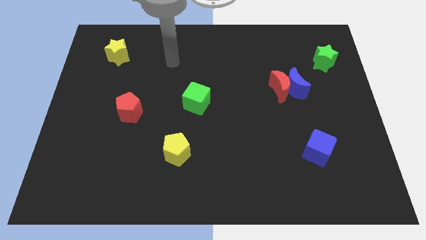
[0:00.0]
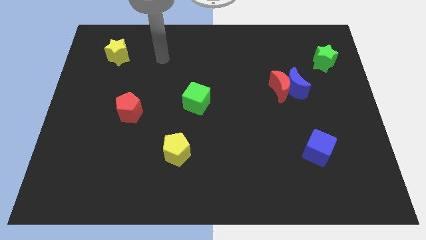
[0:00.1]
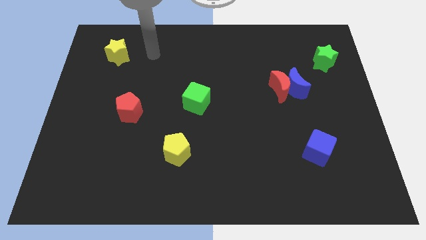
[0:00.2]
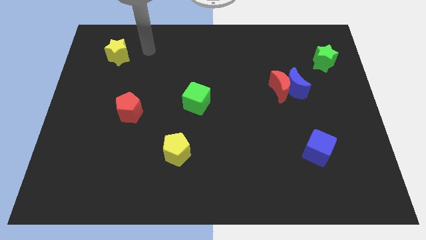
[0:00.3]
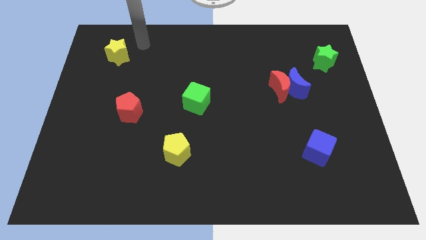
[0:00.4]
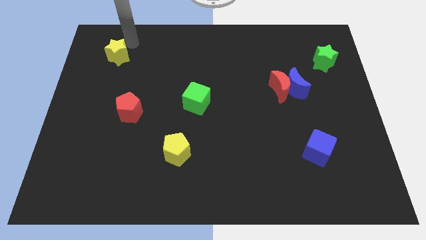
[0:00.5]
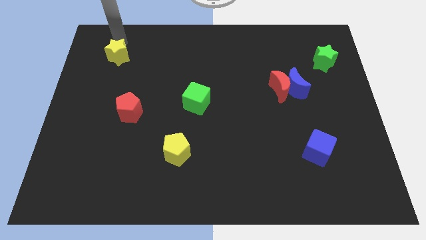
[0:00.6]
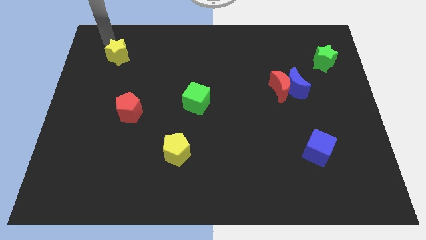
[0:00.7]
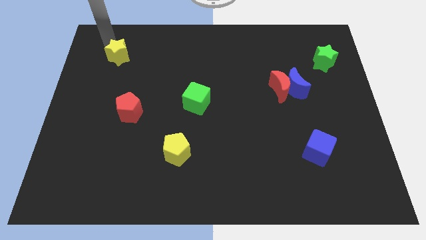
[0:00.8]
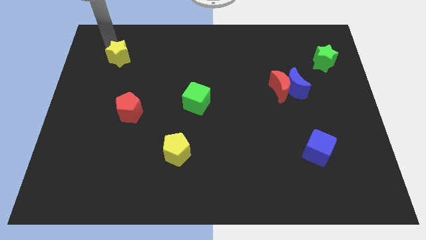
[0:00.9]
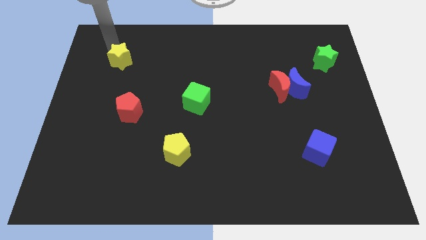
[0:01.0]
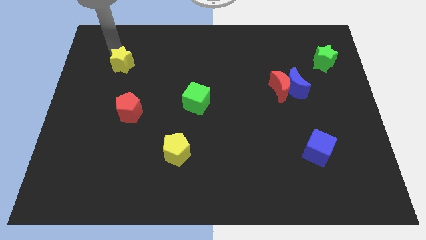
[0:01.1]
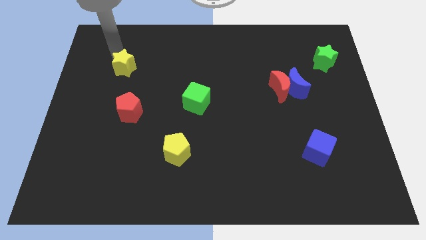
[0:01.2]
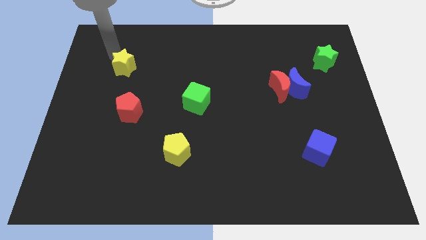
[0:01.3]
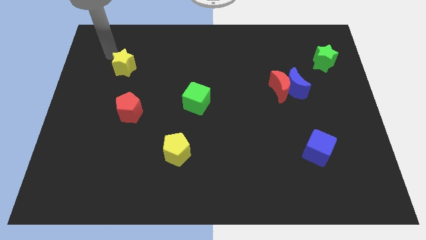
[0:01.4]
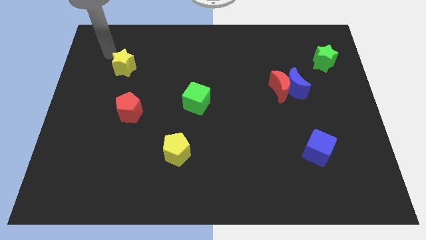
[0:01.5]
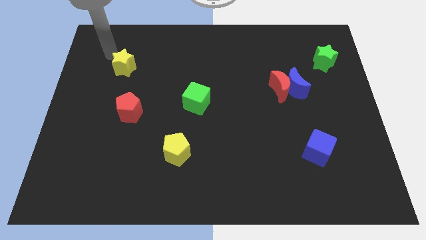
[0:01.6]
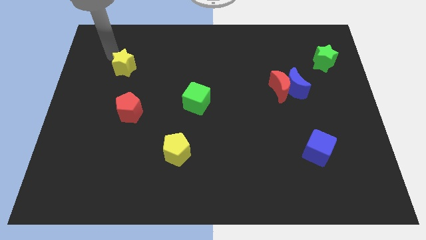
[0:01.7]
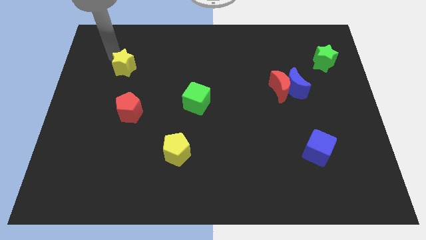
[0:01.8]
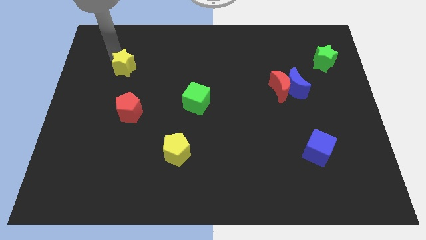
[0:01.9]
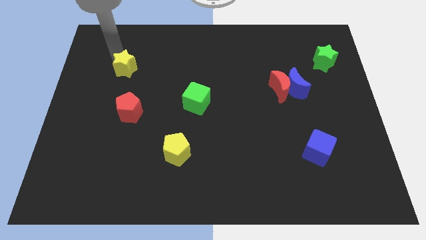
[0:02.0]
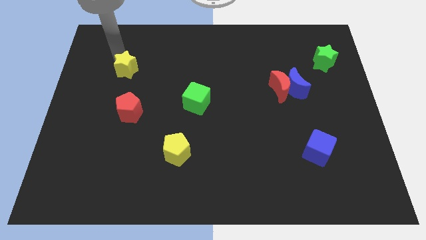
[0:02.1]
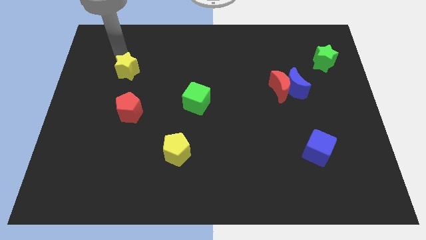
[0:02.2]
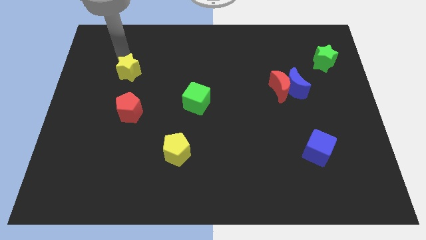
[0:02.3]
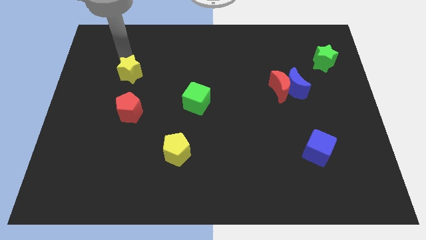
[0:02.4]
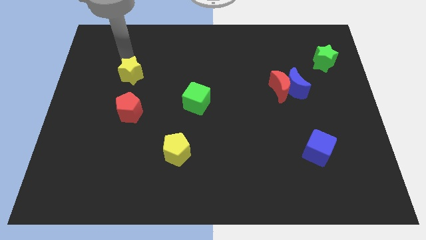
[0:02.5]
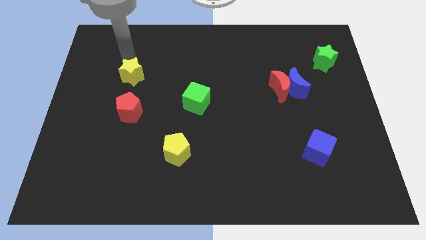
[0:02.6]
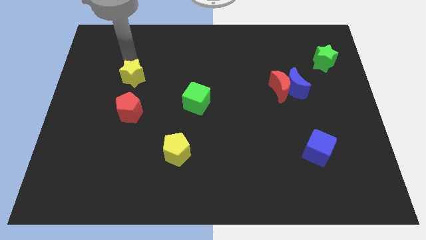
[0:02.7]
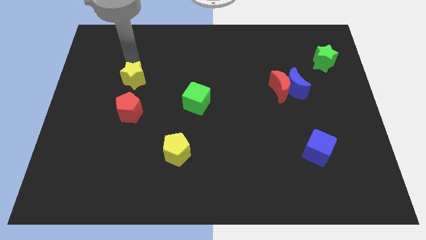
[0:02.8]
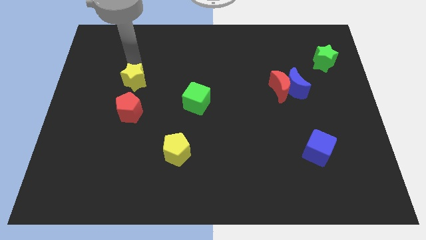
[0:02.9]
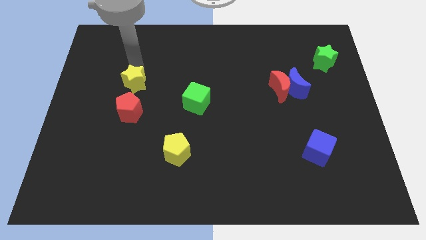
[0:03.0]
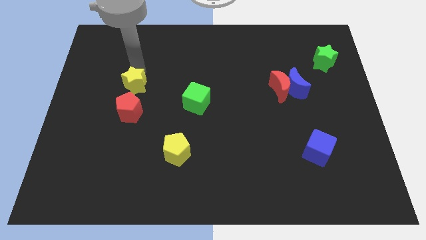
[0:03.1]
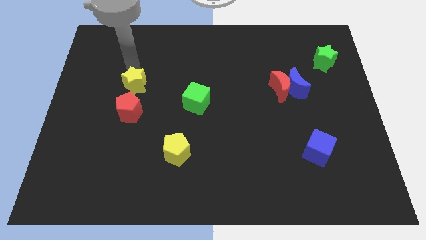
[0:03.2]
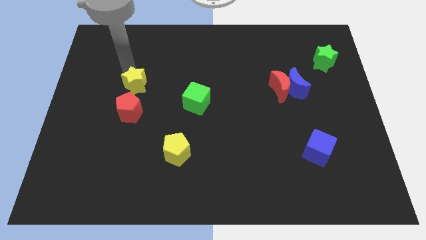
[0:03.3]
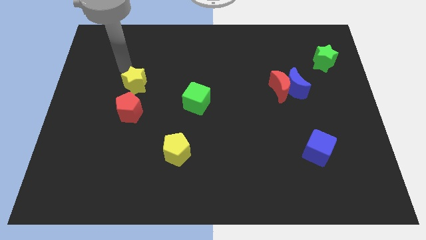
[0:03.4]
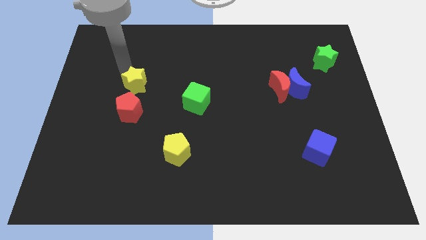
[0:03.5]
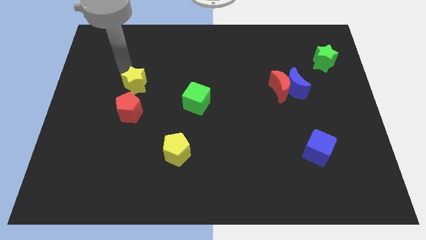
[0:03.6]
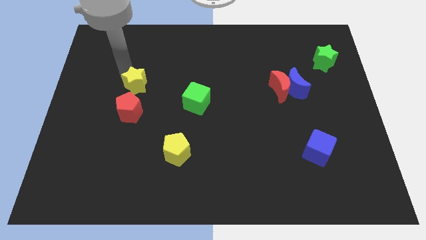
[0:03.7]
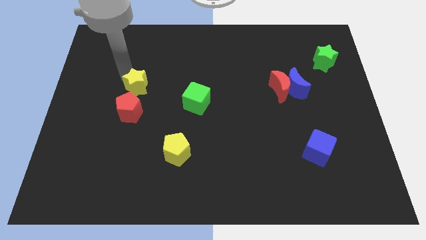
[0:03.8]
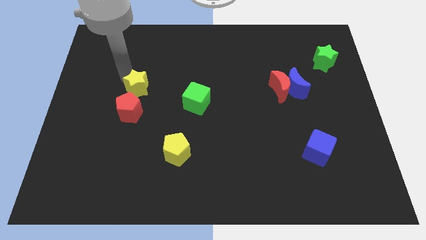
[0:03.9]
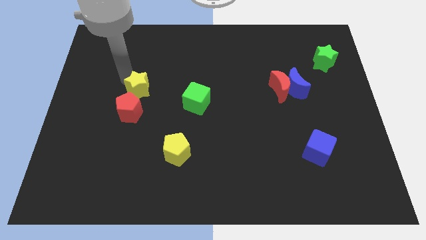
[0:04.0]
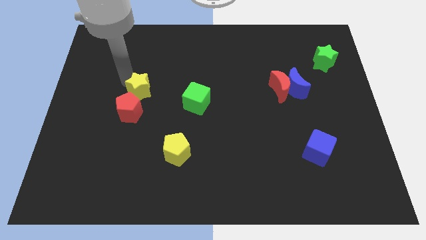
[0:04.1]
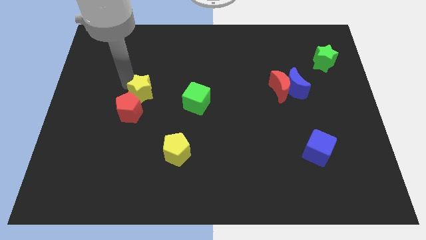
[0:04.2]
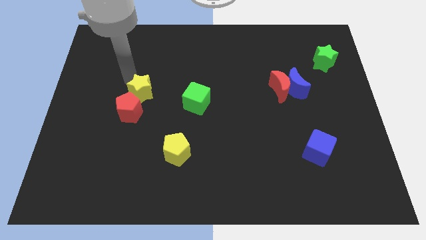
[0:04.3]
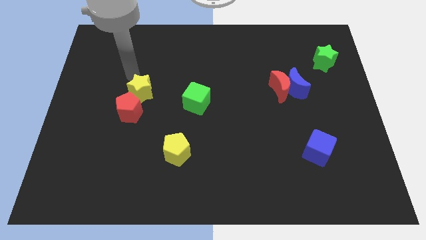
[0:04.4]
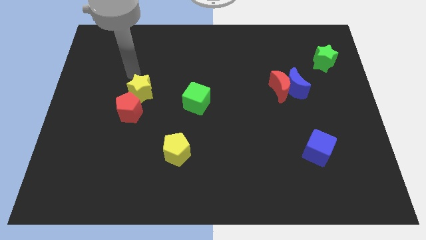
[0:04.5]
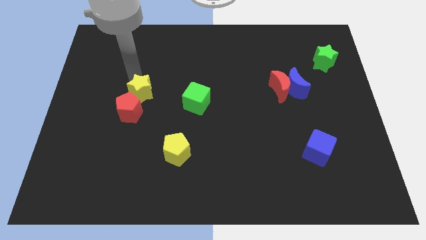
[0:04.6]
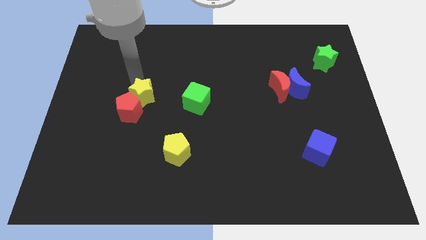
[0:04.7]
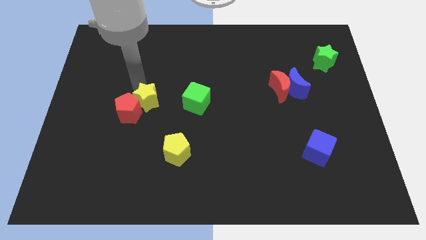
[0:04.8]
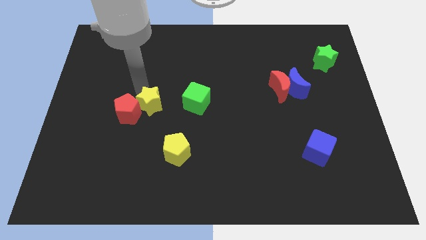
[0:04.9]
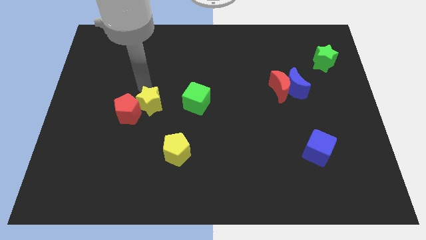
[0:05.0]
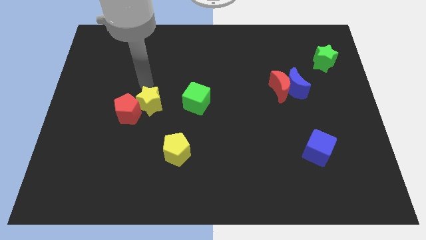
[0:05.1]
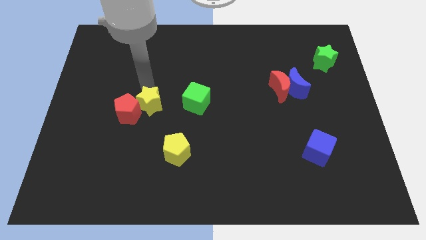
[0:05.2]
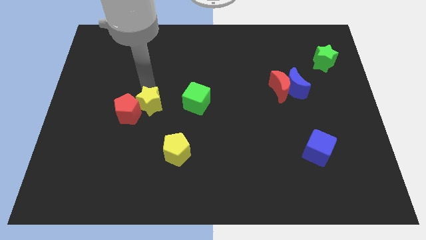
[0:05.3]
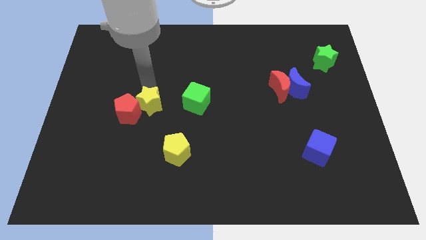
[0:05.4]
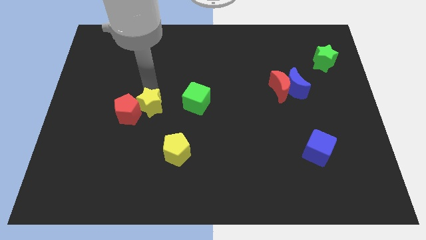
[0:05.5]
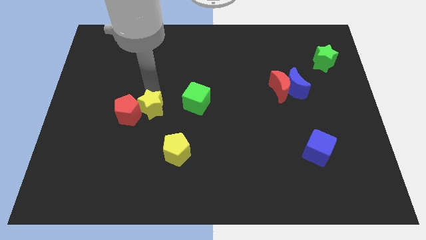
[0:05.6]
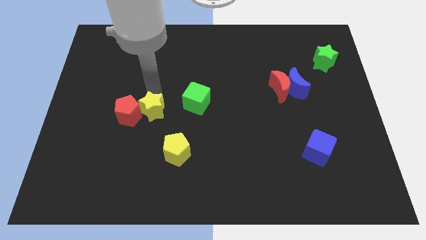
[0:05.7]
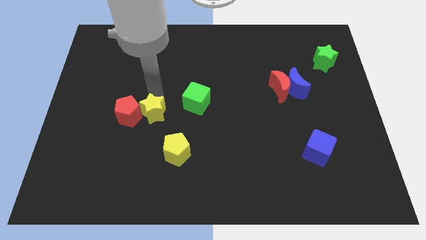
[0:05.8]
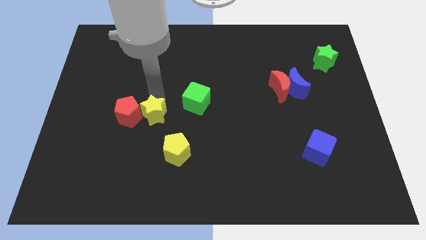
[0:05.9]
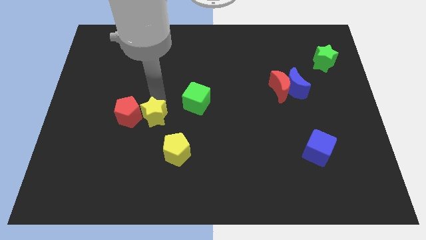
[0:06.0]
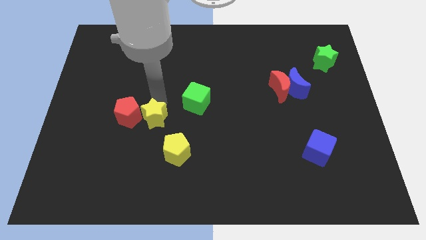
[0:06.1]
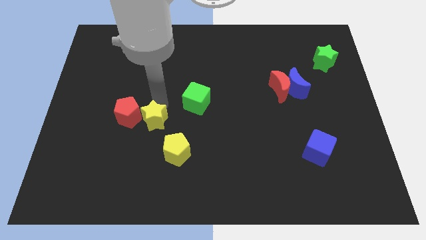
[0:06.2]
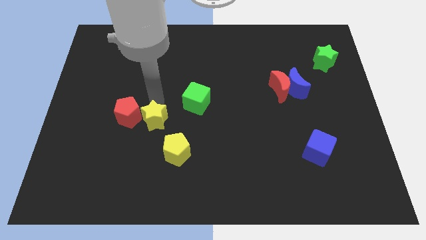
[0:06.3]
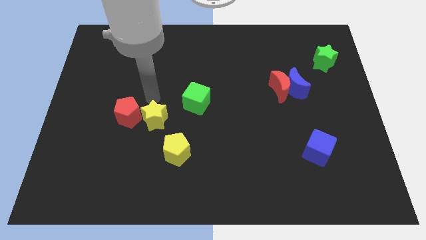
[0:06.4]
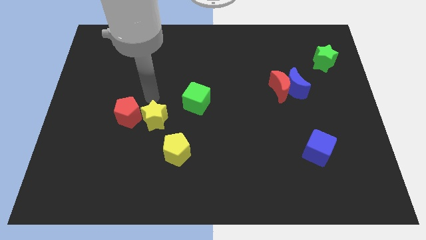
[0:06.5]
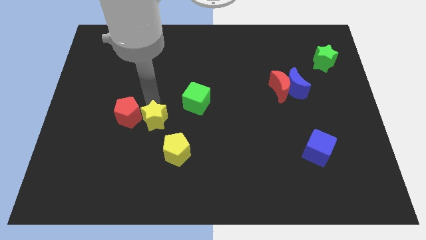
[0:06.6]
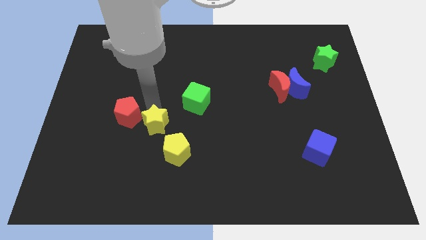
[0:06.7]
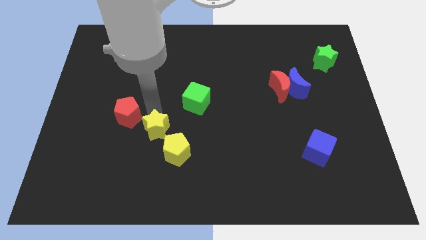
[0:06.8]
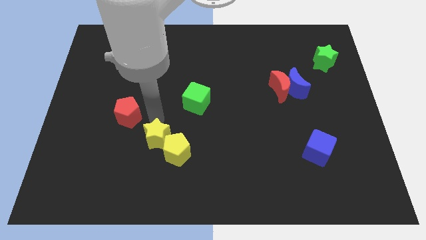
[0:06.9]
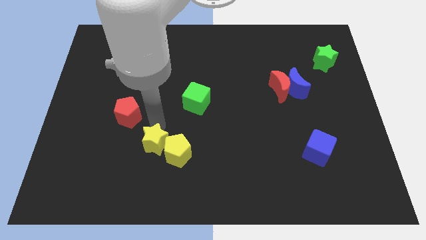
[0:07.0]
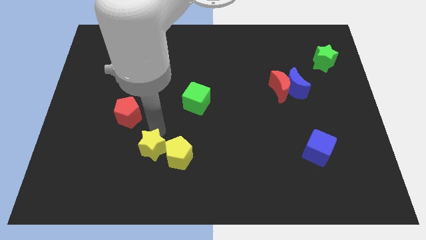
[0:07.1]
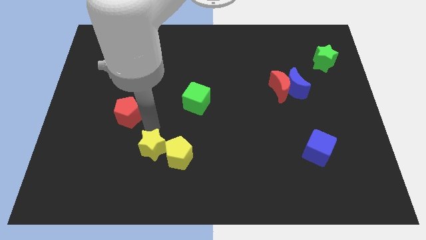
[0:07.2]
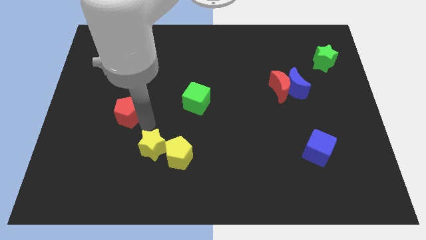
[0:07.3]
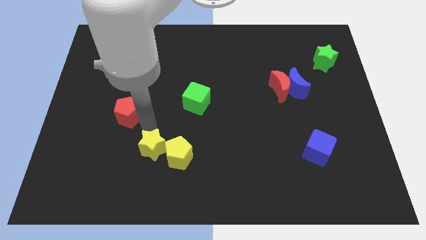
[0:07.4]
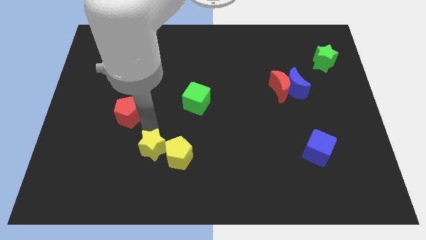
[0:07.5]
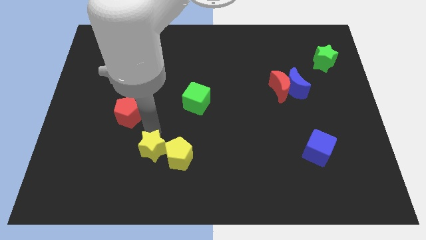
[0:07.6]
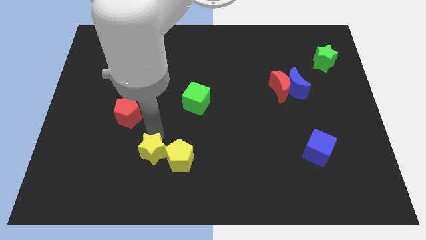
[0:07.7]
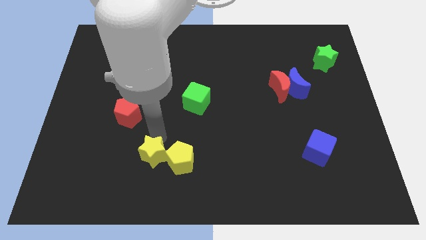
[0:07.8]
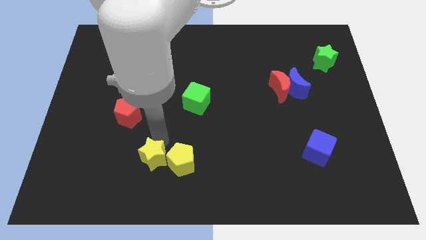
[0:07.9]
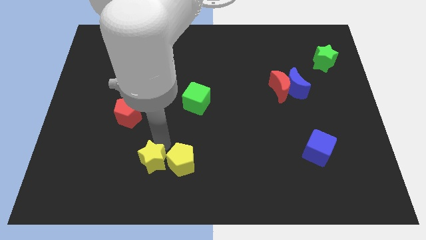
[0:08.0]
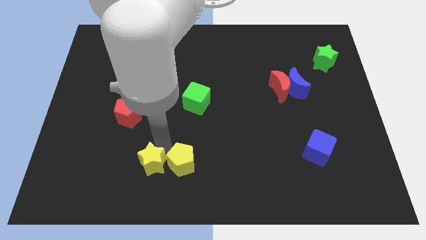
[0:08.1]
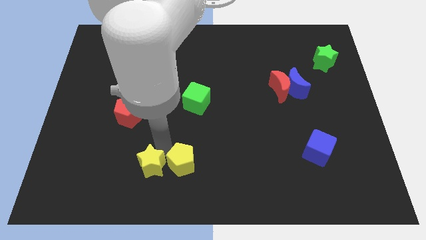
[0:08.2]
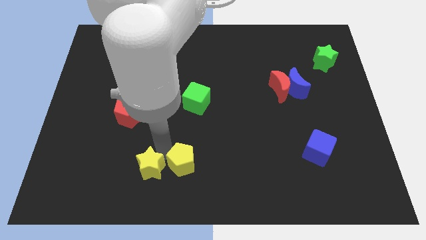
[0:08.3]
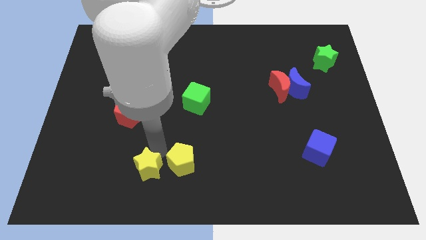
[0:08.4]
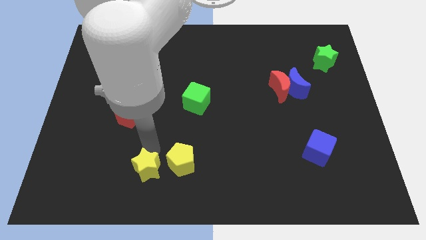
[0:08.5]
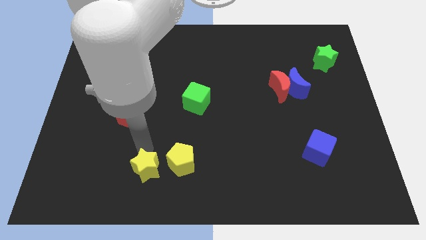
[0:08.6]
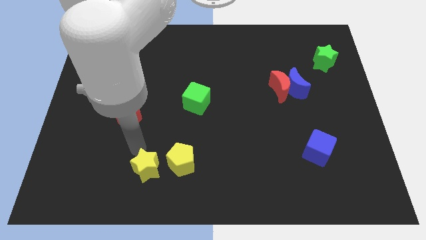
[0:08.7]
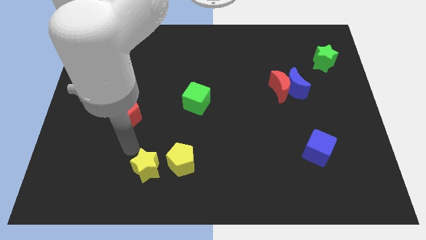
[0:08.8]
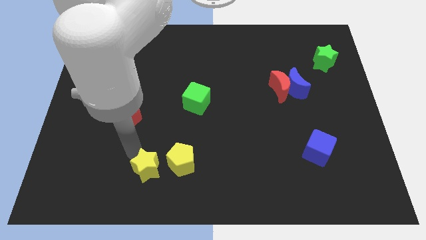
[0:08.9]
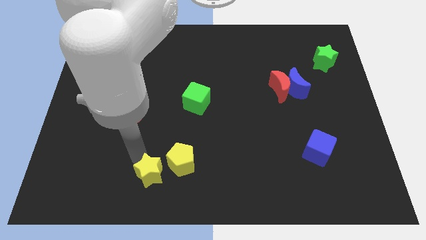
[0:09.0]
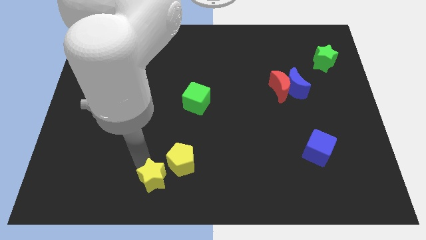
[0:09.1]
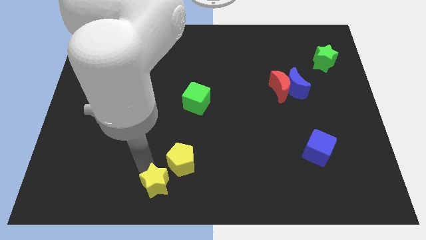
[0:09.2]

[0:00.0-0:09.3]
slide the yellow star to the bottom side
